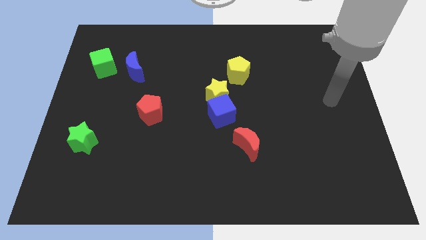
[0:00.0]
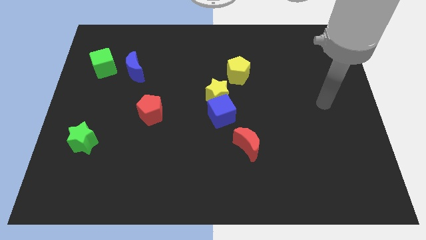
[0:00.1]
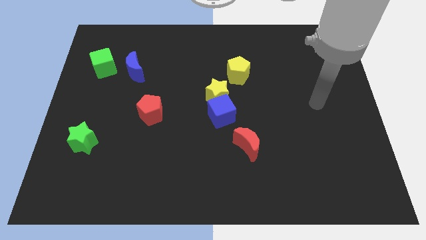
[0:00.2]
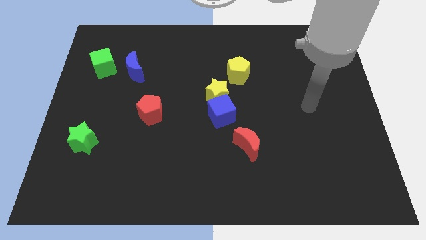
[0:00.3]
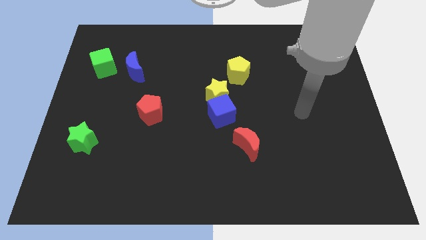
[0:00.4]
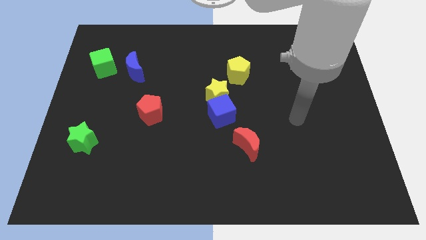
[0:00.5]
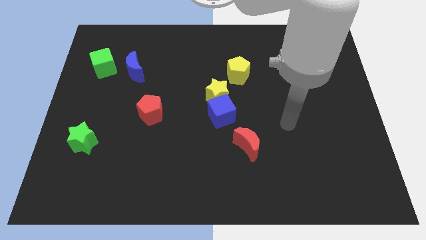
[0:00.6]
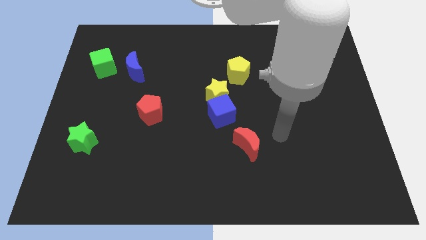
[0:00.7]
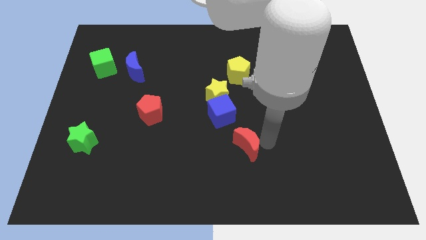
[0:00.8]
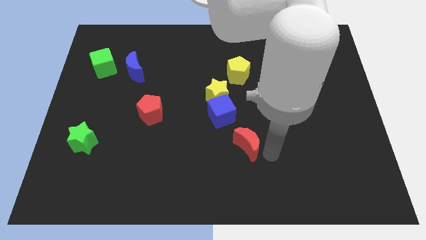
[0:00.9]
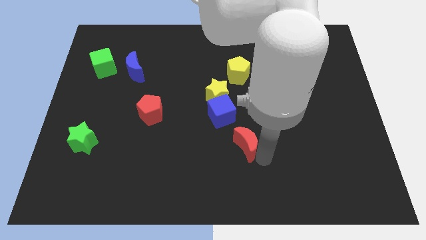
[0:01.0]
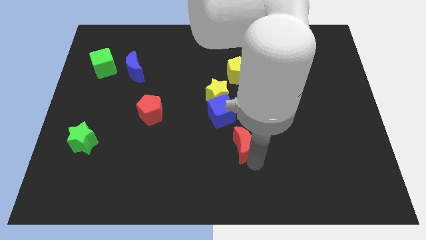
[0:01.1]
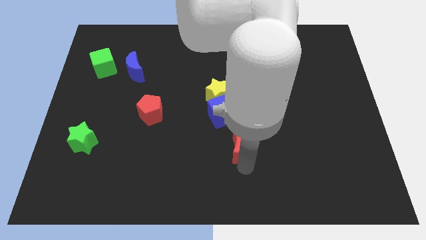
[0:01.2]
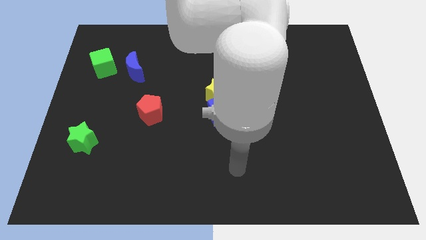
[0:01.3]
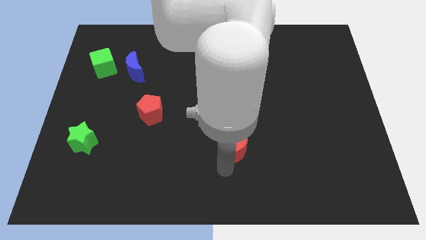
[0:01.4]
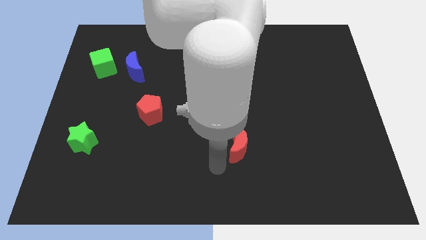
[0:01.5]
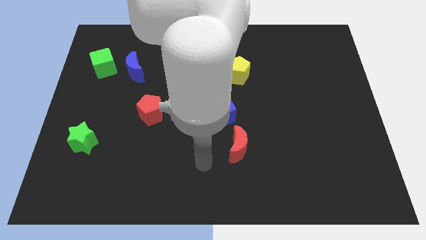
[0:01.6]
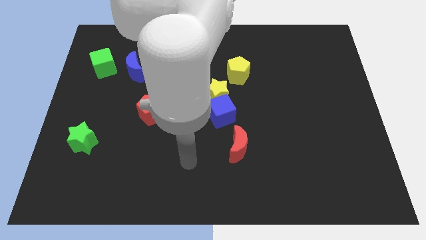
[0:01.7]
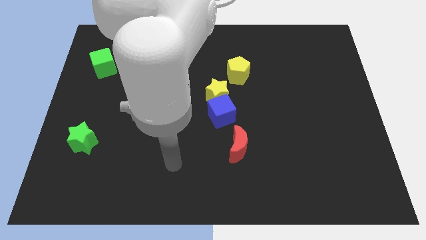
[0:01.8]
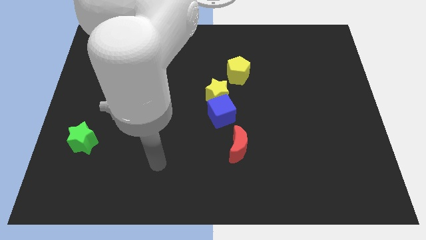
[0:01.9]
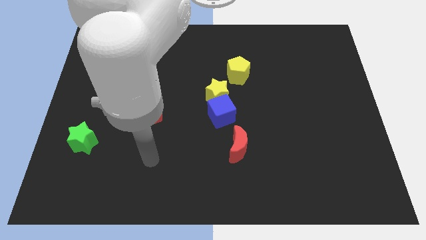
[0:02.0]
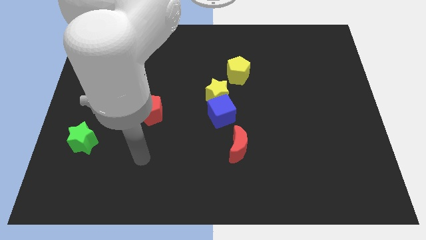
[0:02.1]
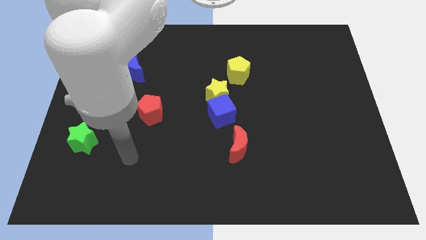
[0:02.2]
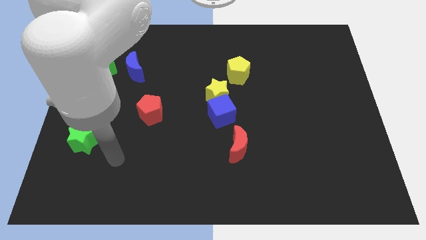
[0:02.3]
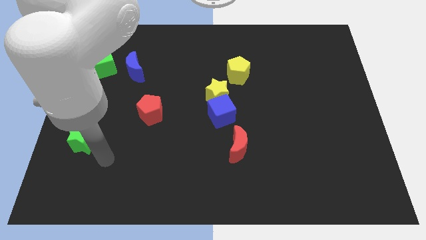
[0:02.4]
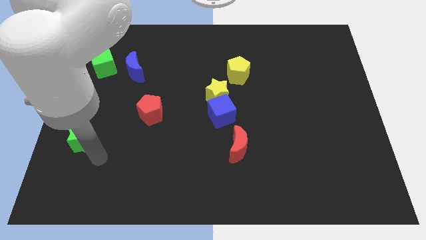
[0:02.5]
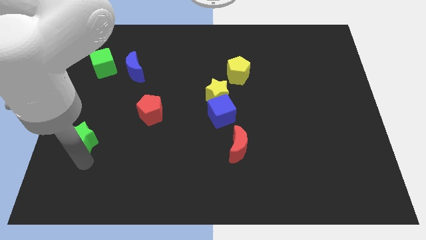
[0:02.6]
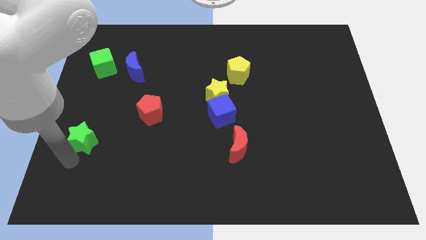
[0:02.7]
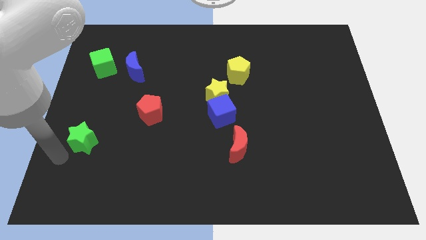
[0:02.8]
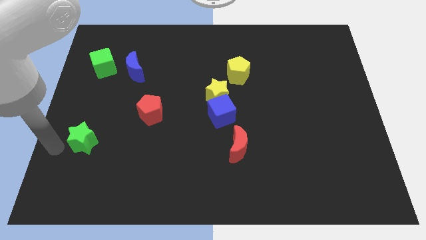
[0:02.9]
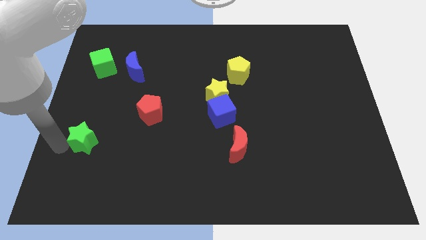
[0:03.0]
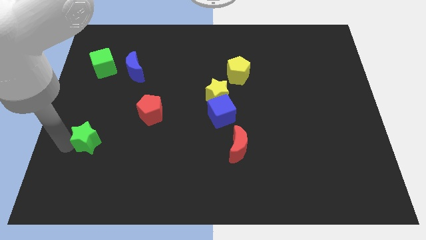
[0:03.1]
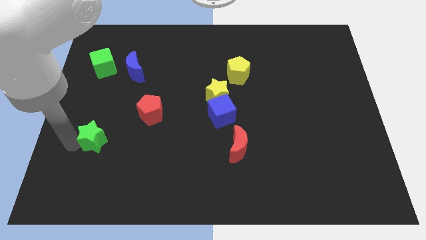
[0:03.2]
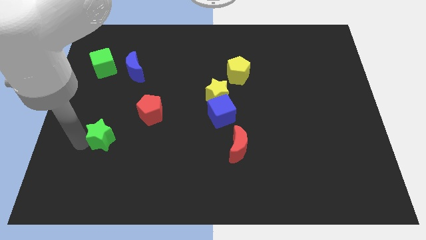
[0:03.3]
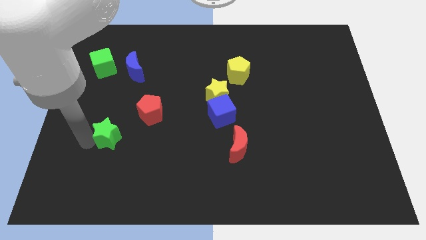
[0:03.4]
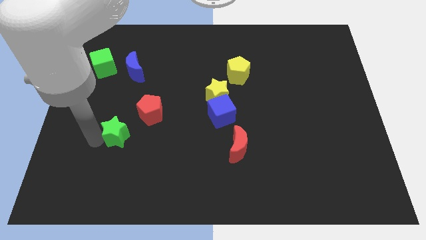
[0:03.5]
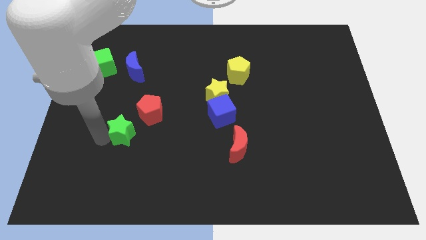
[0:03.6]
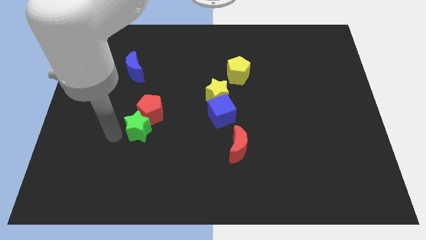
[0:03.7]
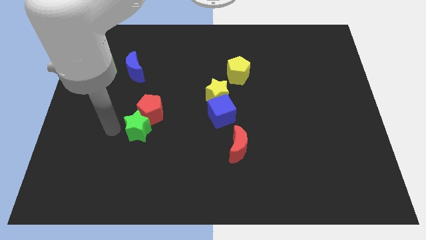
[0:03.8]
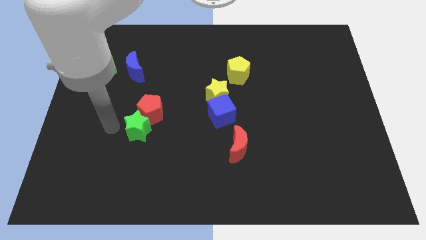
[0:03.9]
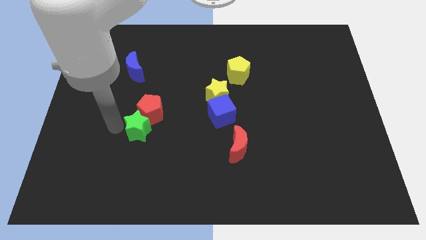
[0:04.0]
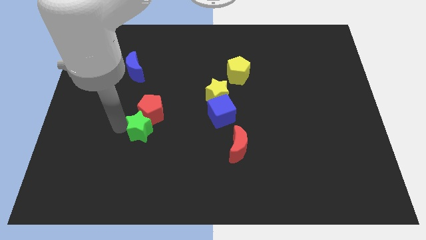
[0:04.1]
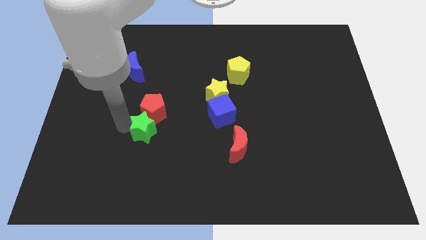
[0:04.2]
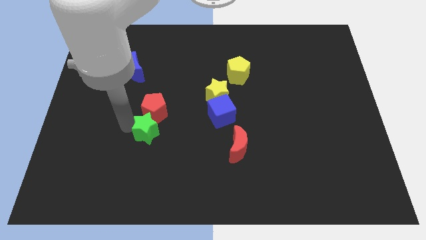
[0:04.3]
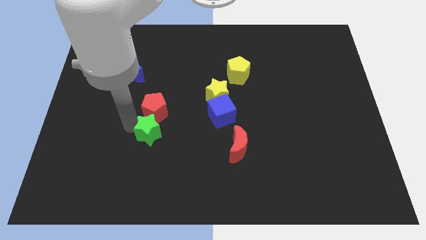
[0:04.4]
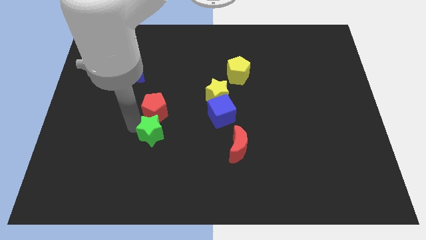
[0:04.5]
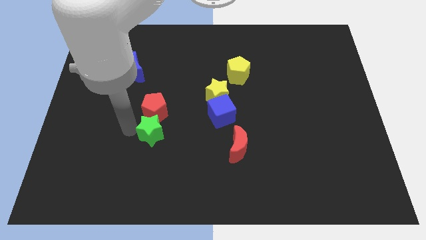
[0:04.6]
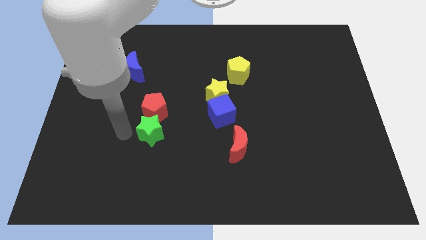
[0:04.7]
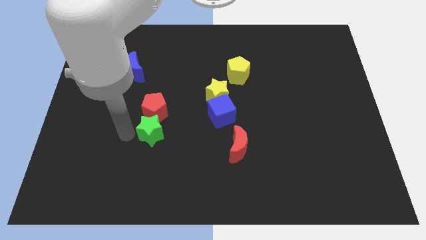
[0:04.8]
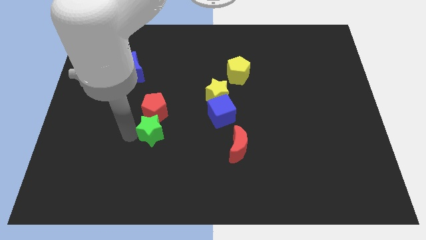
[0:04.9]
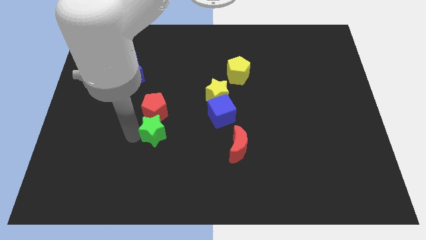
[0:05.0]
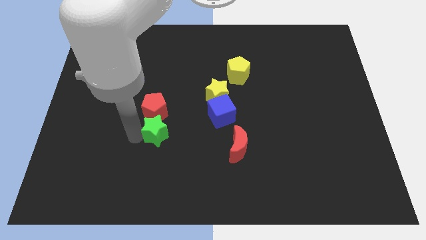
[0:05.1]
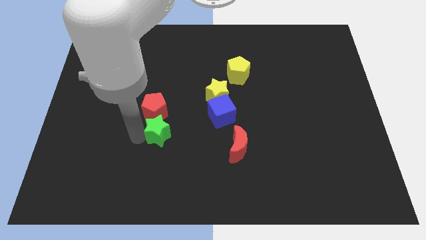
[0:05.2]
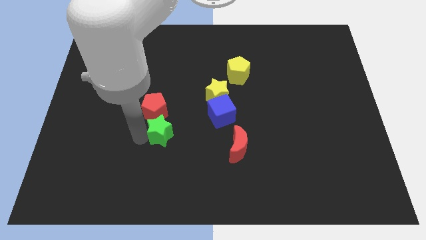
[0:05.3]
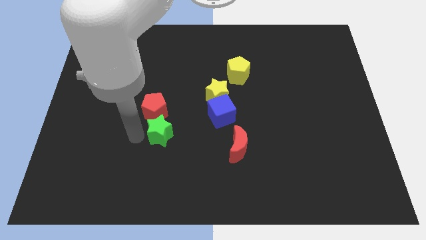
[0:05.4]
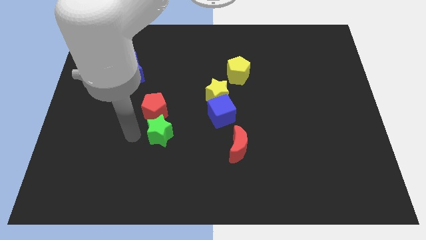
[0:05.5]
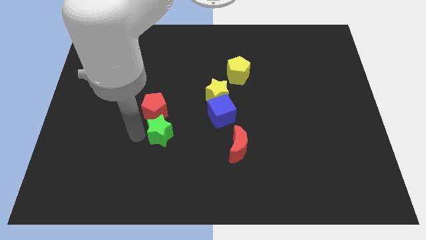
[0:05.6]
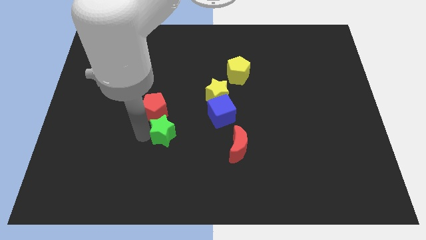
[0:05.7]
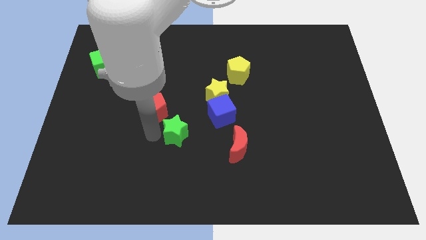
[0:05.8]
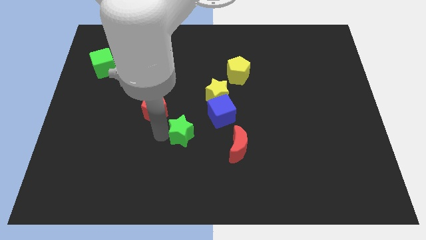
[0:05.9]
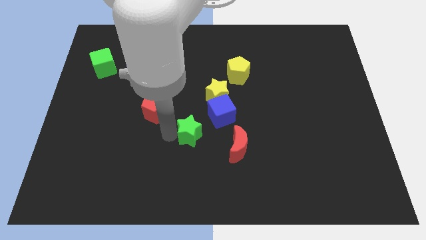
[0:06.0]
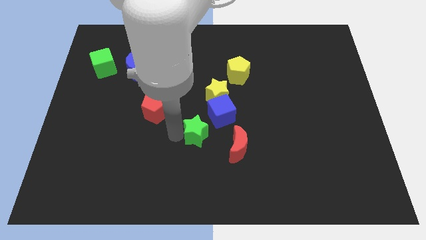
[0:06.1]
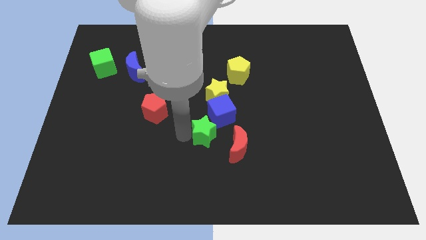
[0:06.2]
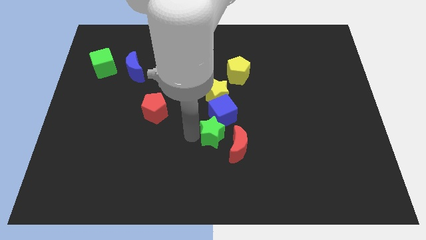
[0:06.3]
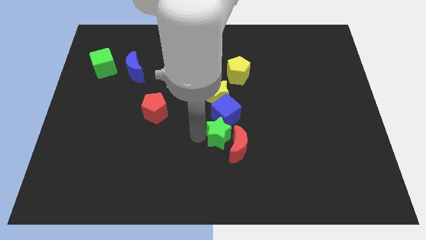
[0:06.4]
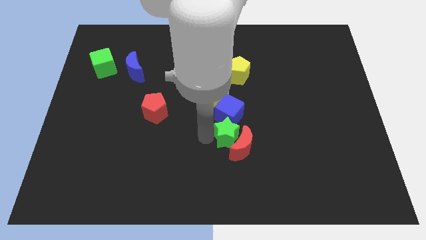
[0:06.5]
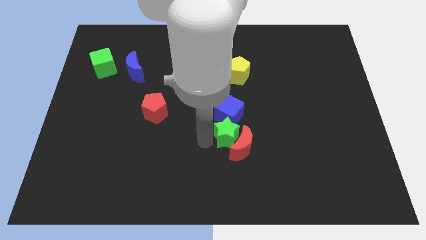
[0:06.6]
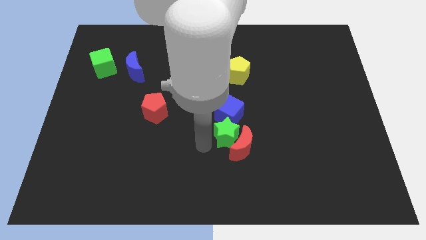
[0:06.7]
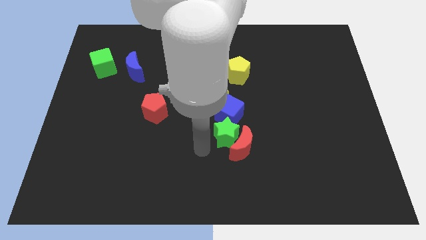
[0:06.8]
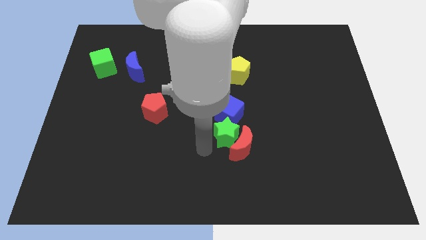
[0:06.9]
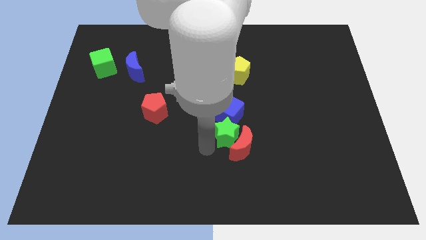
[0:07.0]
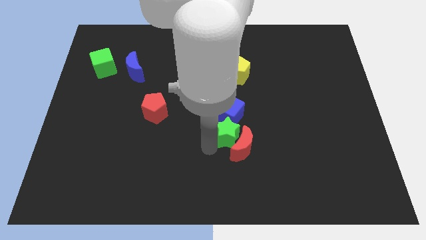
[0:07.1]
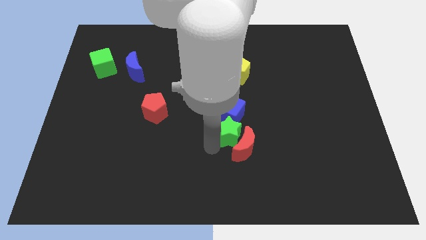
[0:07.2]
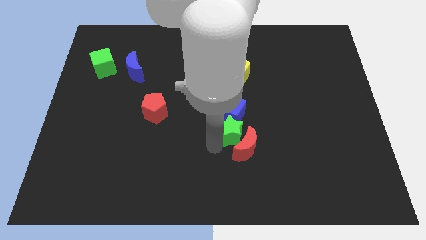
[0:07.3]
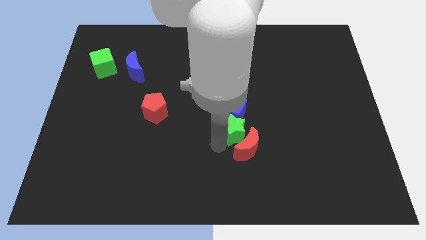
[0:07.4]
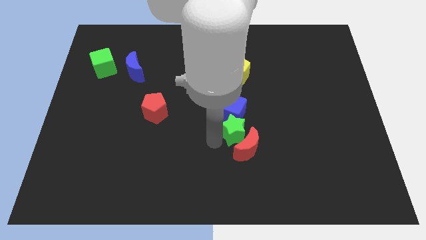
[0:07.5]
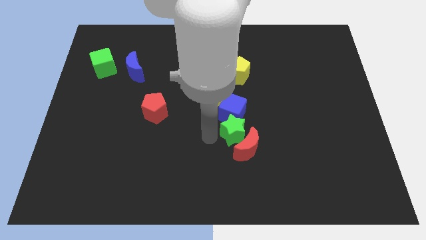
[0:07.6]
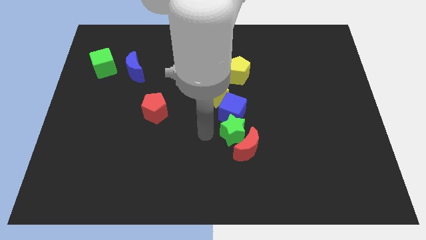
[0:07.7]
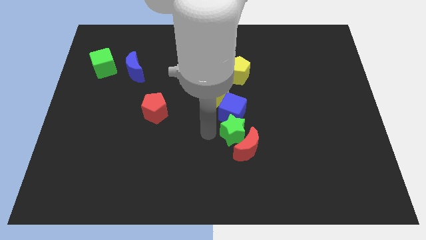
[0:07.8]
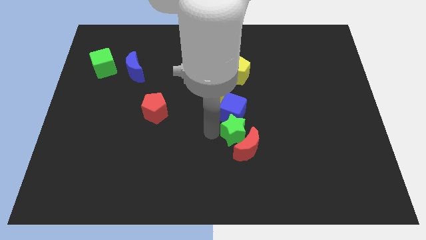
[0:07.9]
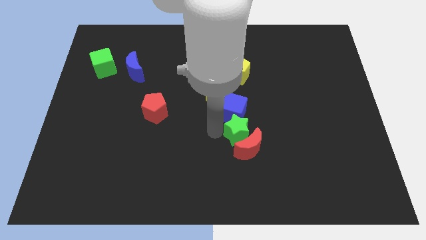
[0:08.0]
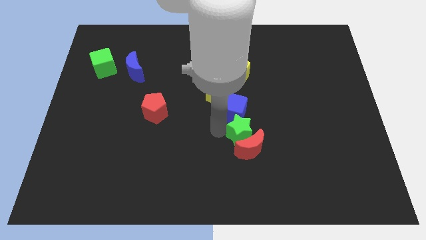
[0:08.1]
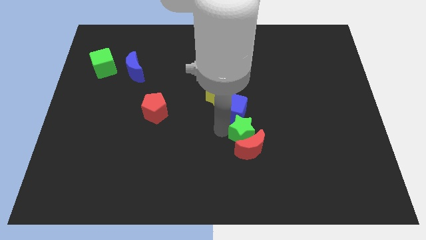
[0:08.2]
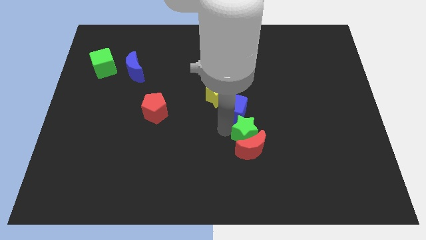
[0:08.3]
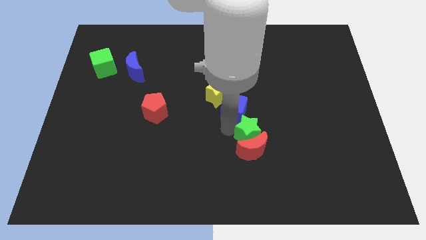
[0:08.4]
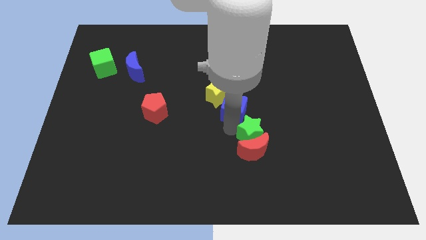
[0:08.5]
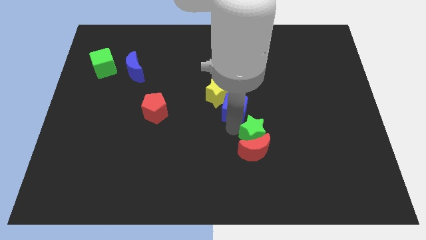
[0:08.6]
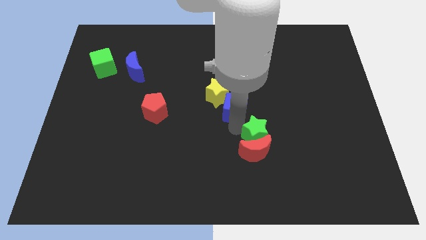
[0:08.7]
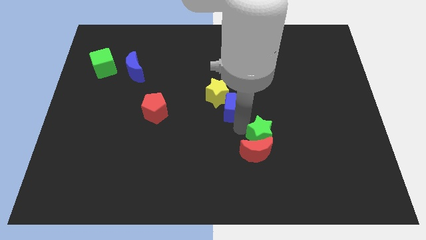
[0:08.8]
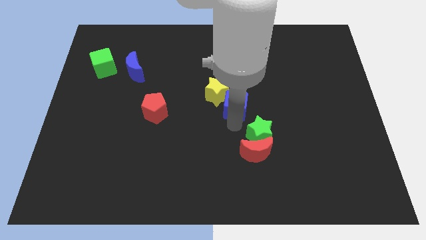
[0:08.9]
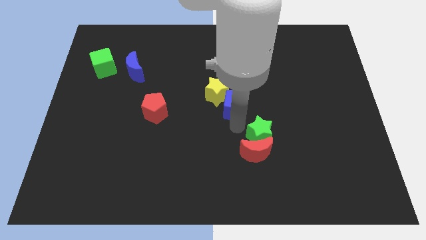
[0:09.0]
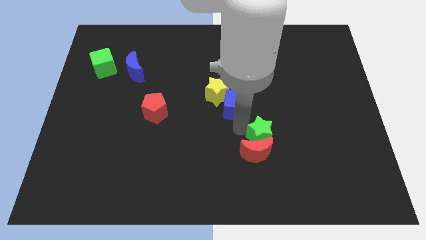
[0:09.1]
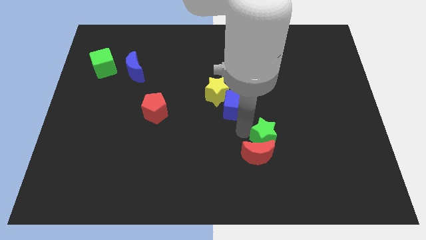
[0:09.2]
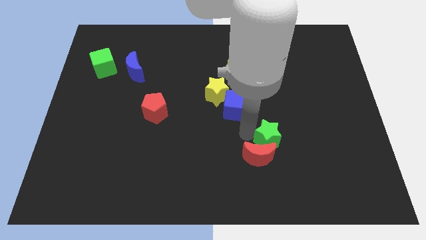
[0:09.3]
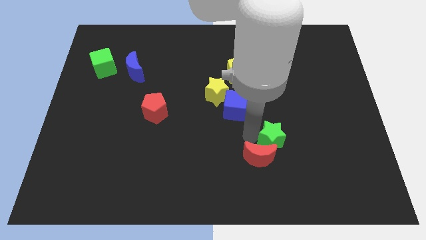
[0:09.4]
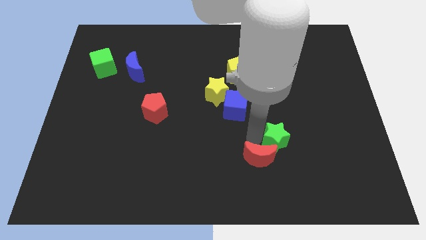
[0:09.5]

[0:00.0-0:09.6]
slide the green star to the right of the red moon
